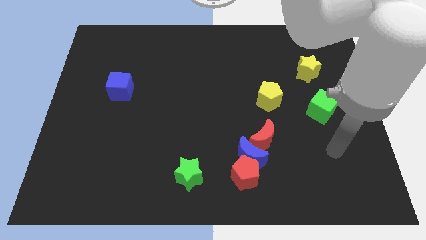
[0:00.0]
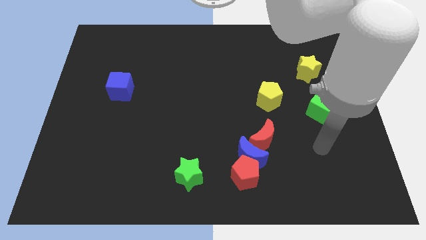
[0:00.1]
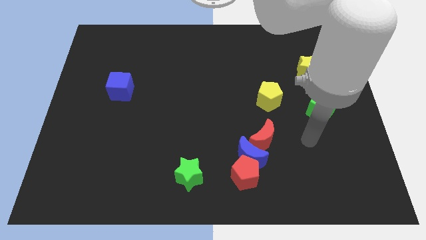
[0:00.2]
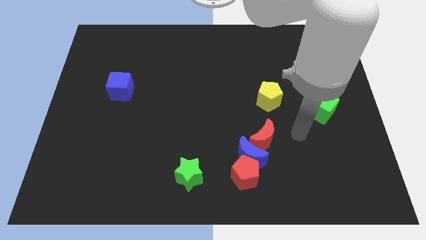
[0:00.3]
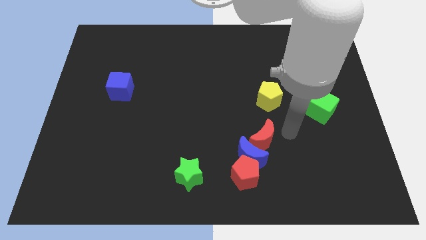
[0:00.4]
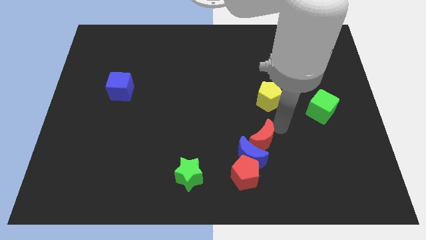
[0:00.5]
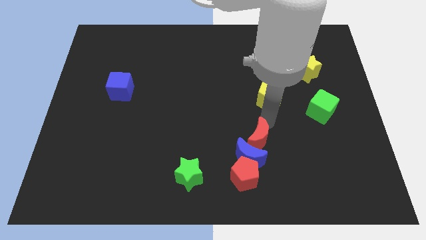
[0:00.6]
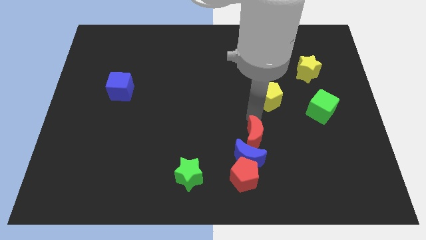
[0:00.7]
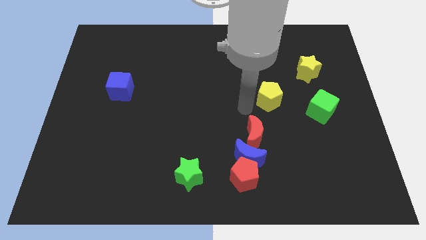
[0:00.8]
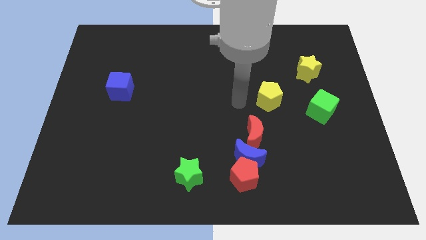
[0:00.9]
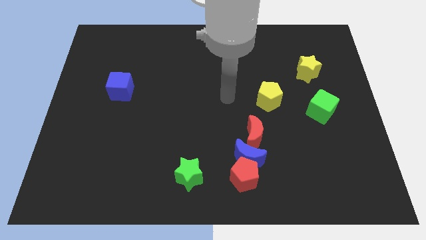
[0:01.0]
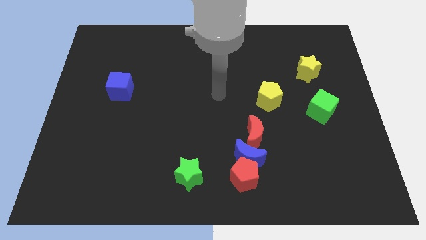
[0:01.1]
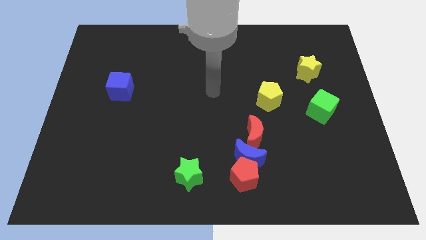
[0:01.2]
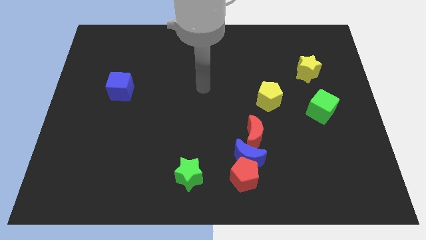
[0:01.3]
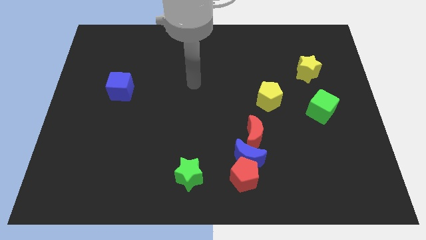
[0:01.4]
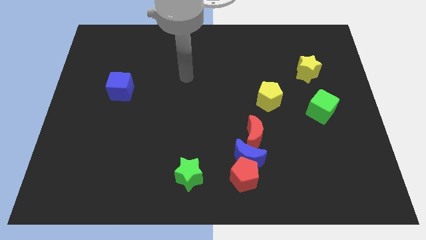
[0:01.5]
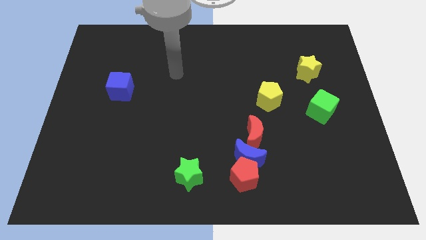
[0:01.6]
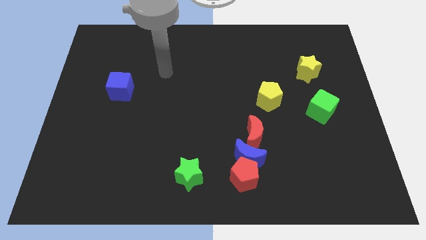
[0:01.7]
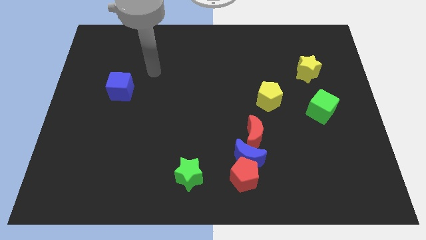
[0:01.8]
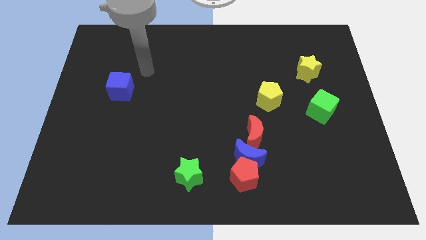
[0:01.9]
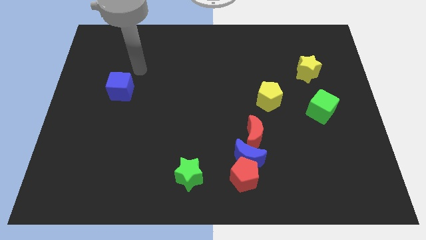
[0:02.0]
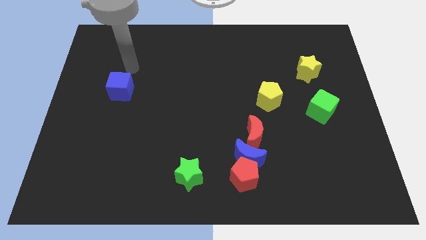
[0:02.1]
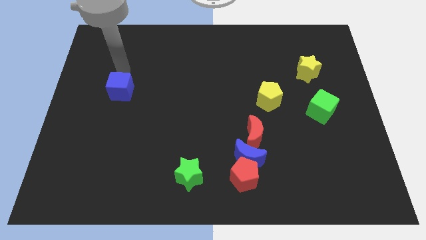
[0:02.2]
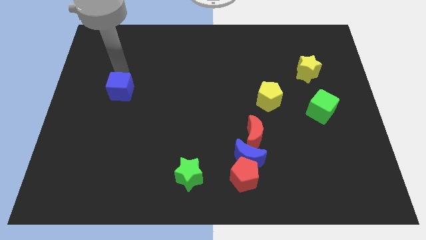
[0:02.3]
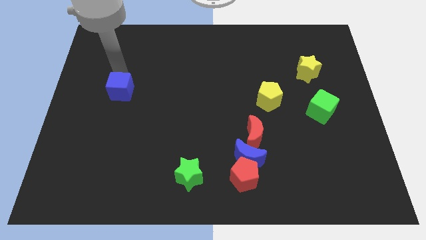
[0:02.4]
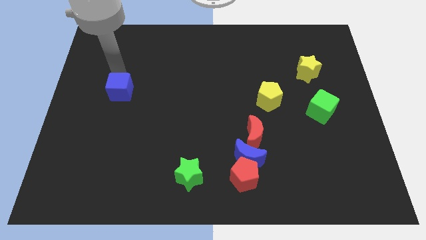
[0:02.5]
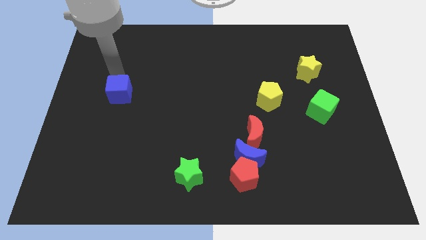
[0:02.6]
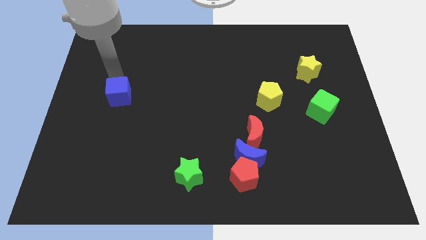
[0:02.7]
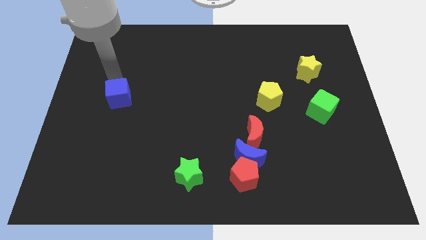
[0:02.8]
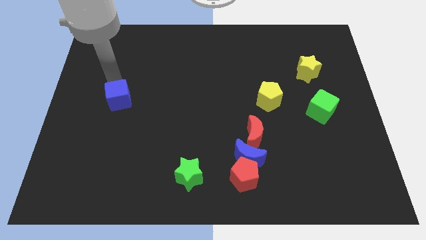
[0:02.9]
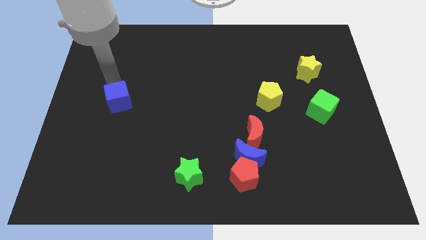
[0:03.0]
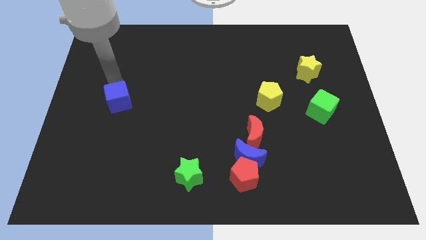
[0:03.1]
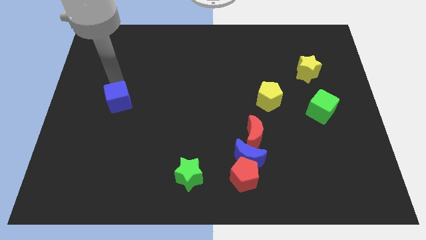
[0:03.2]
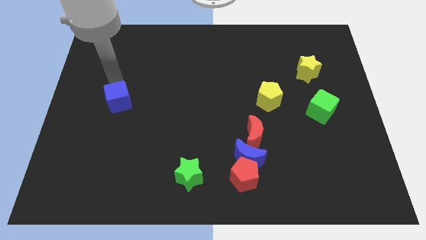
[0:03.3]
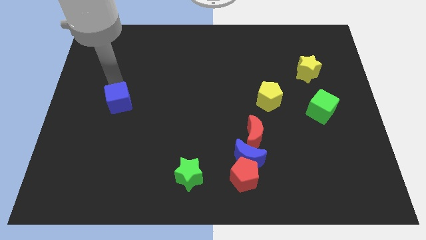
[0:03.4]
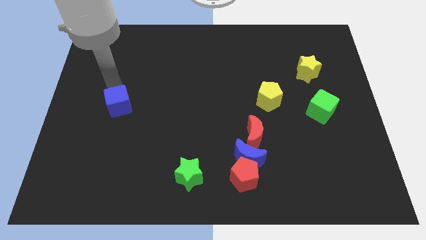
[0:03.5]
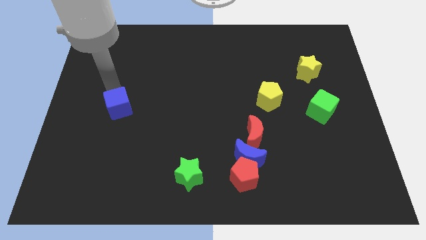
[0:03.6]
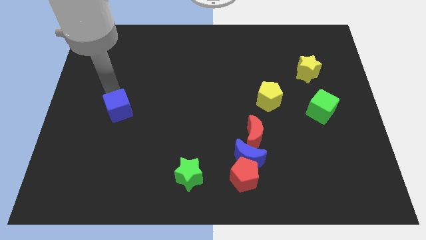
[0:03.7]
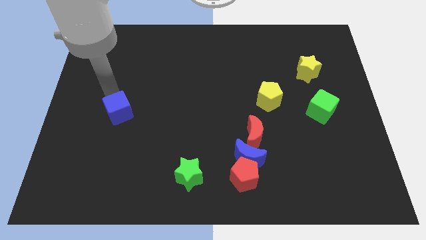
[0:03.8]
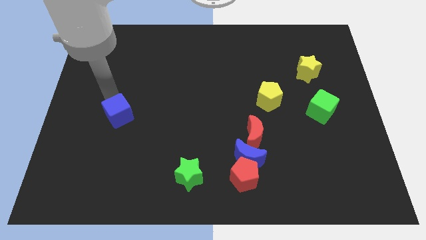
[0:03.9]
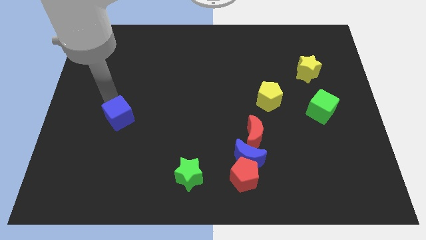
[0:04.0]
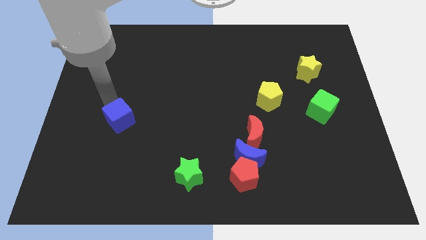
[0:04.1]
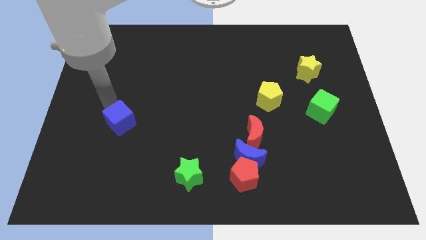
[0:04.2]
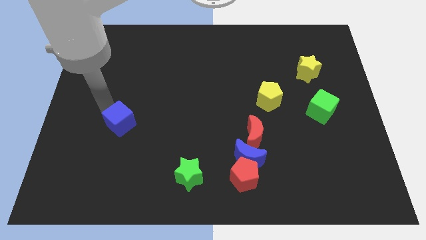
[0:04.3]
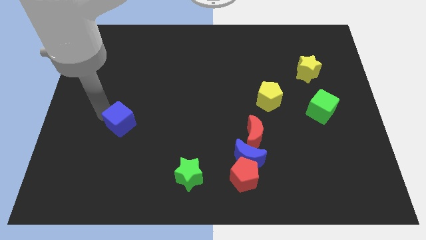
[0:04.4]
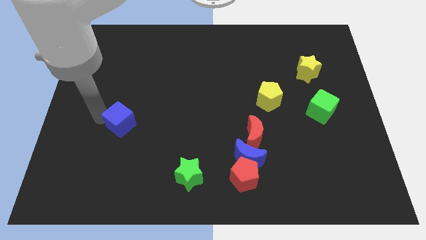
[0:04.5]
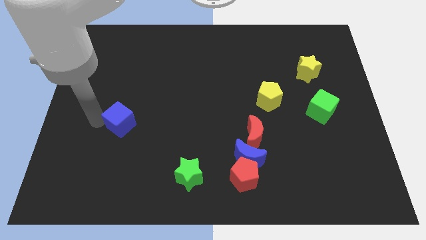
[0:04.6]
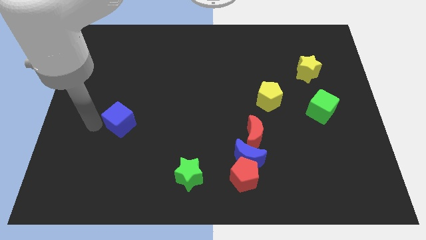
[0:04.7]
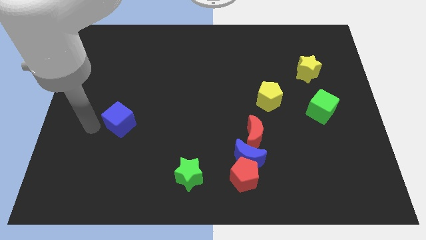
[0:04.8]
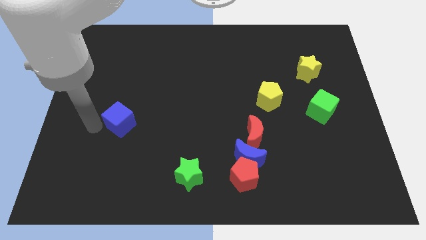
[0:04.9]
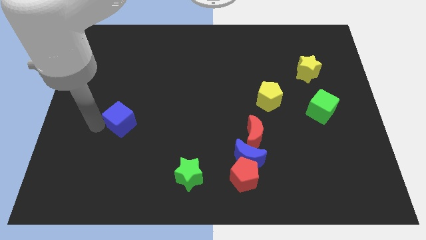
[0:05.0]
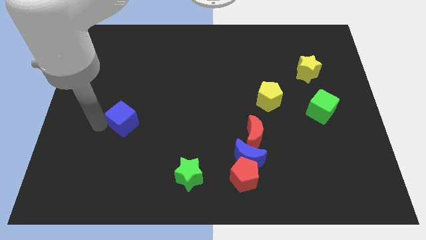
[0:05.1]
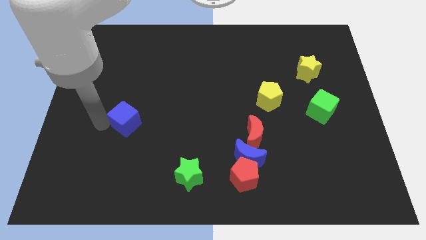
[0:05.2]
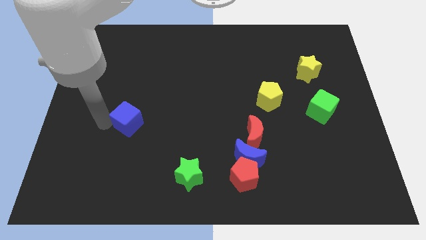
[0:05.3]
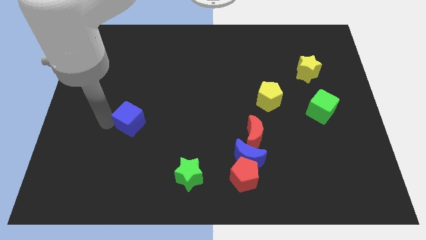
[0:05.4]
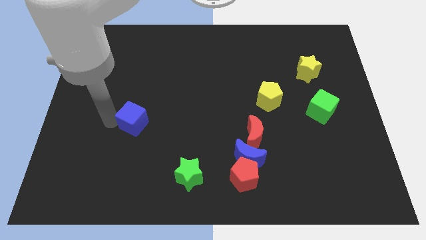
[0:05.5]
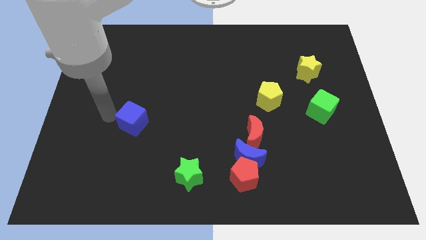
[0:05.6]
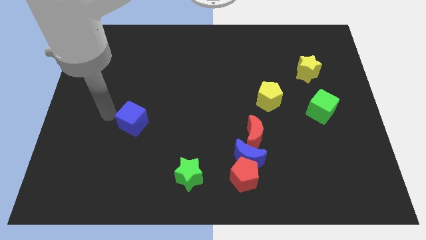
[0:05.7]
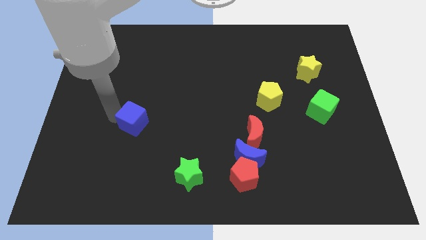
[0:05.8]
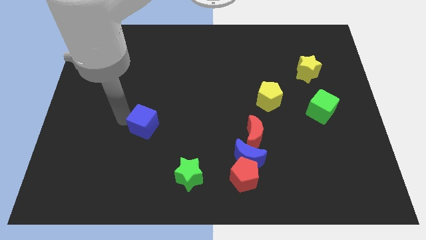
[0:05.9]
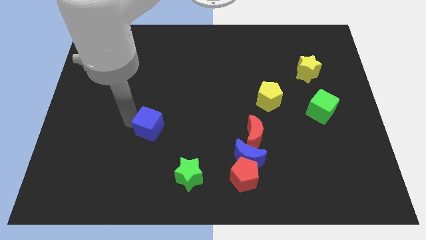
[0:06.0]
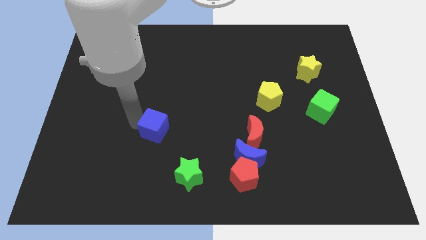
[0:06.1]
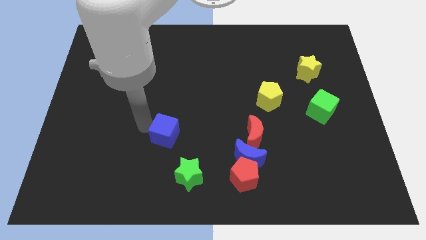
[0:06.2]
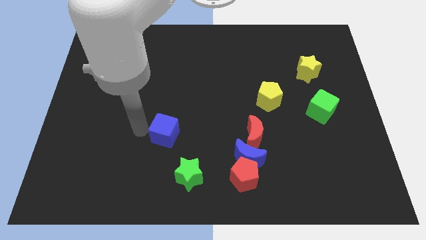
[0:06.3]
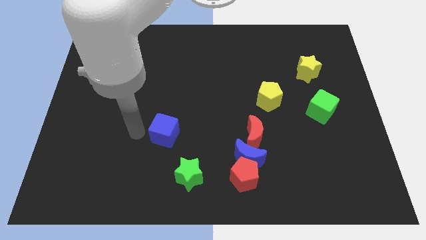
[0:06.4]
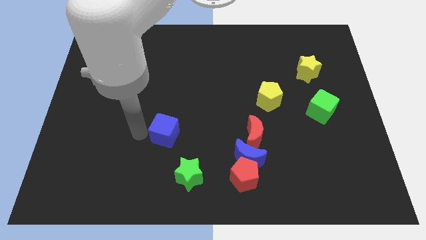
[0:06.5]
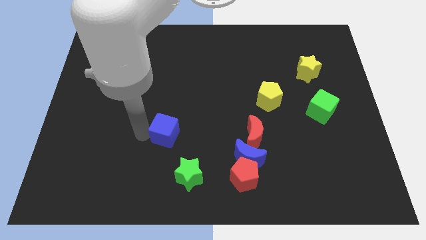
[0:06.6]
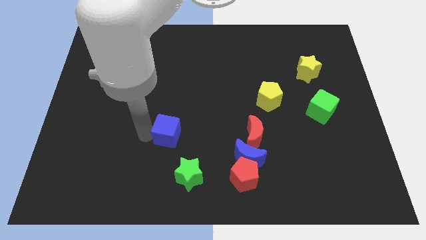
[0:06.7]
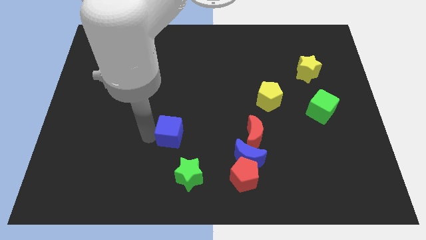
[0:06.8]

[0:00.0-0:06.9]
slide the blue cube above the green star

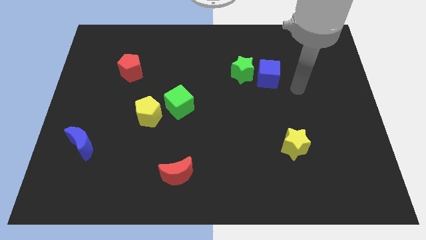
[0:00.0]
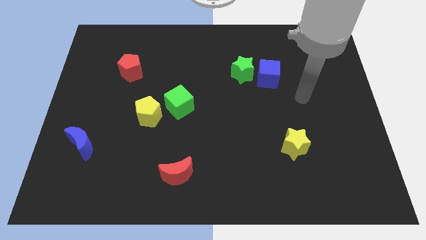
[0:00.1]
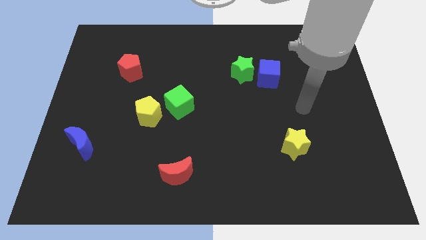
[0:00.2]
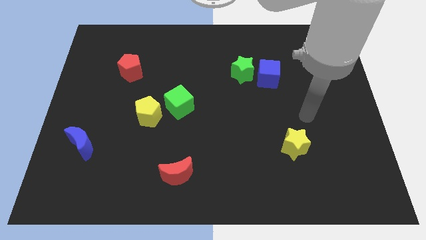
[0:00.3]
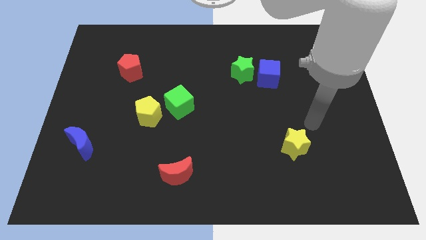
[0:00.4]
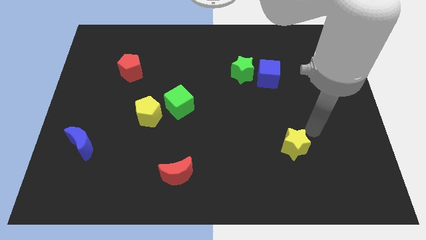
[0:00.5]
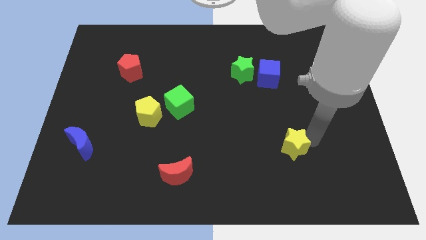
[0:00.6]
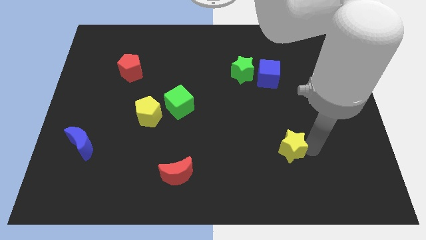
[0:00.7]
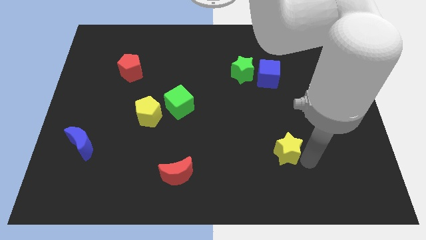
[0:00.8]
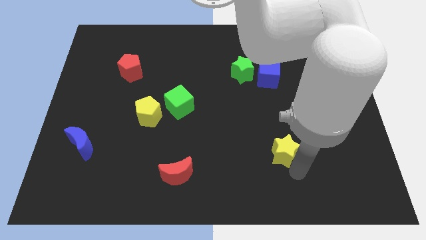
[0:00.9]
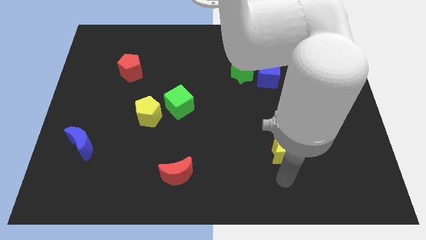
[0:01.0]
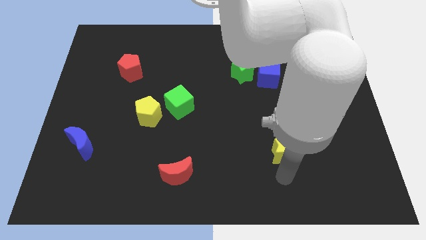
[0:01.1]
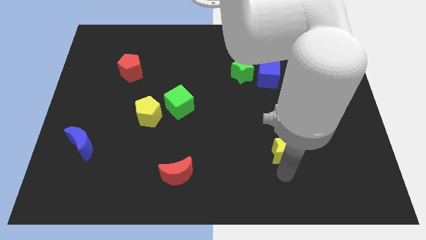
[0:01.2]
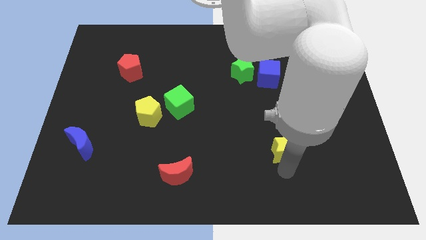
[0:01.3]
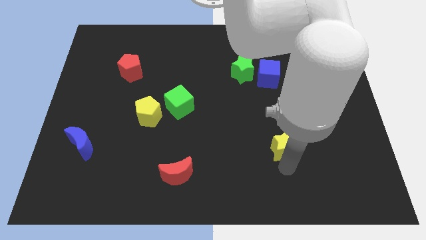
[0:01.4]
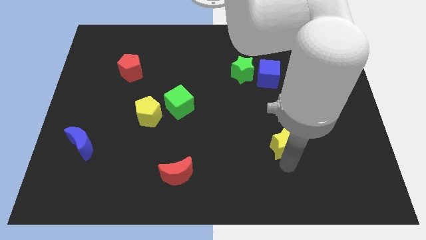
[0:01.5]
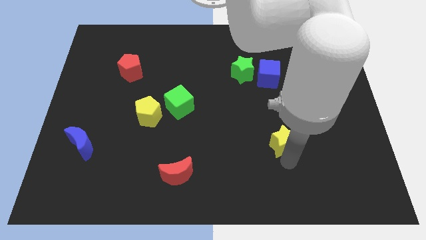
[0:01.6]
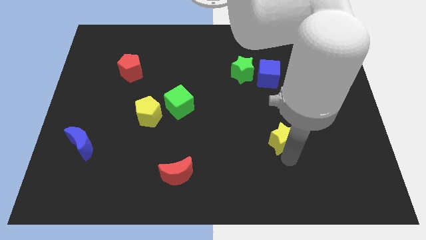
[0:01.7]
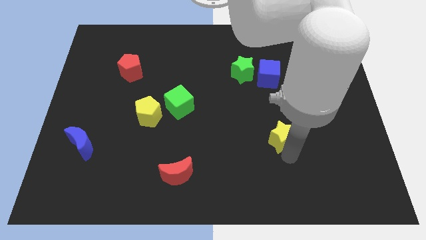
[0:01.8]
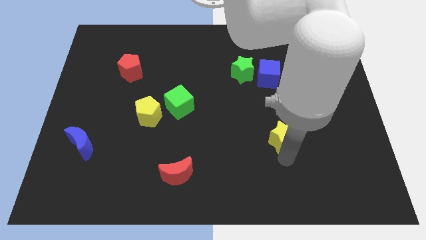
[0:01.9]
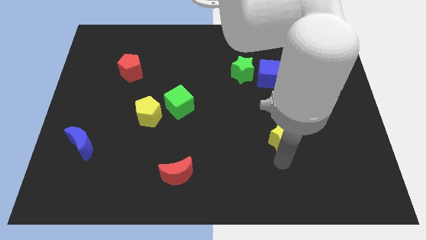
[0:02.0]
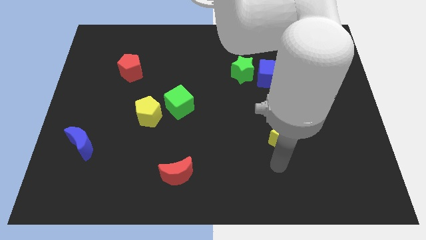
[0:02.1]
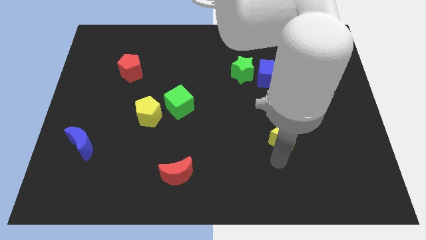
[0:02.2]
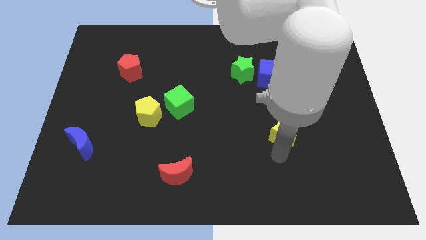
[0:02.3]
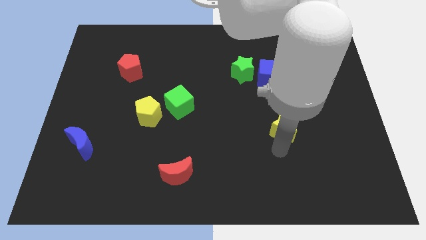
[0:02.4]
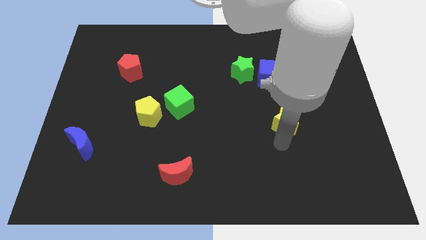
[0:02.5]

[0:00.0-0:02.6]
move the yellow star to the bottom of the blue cube
